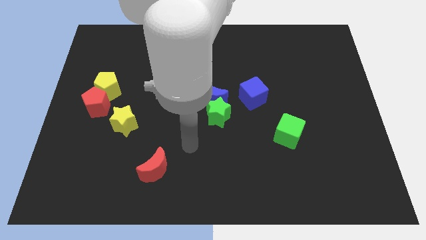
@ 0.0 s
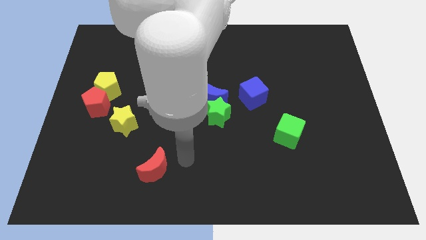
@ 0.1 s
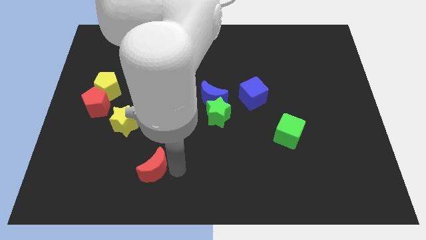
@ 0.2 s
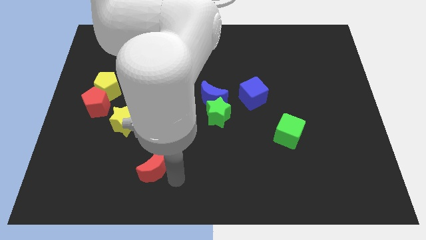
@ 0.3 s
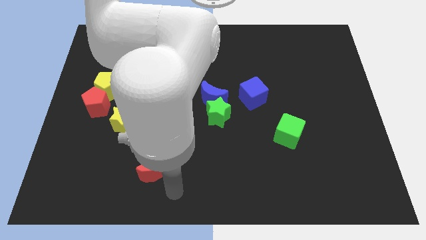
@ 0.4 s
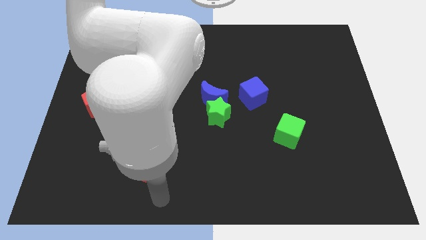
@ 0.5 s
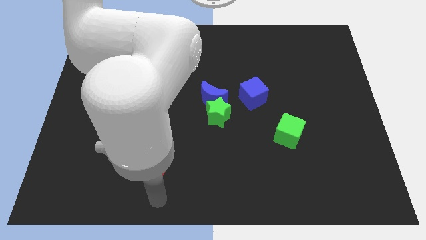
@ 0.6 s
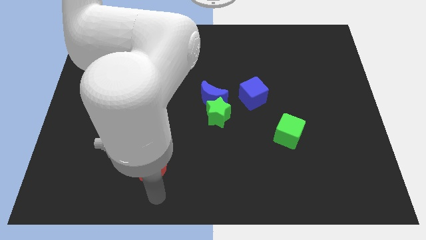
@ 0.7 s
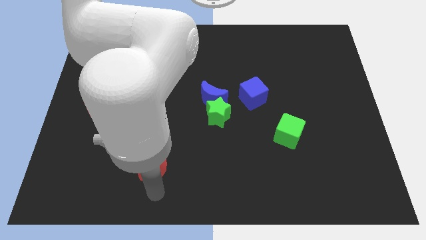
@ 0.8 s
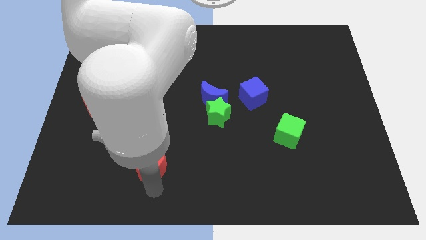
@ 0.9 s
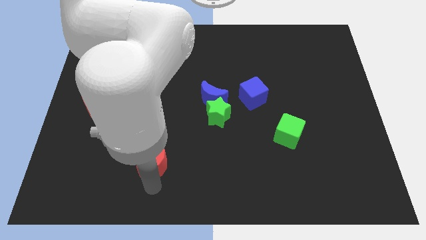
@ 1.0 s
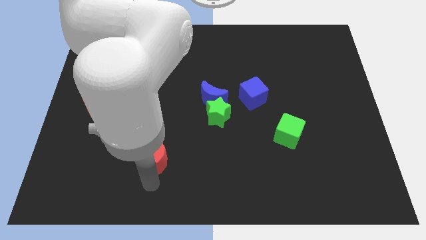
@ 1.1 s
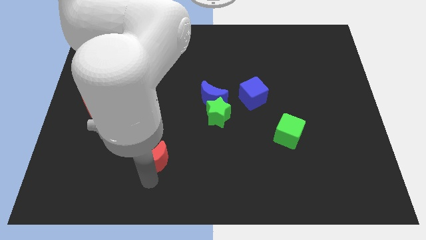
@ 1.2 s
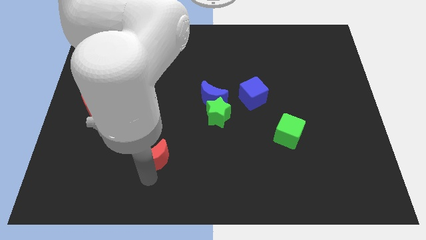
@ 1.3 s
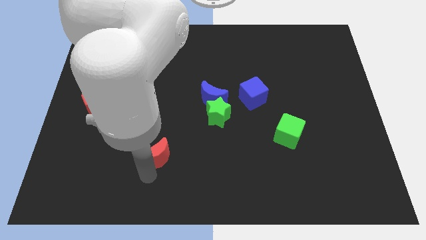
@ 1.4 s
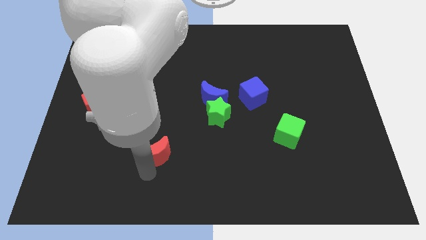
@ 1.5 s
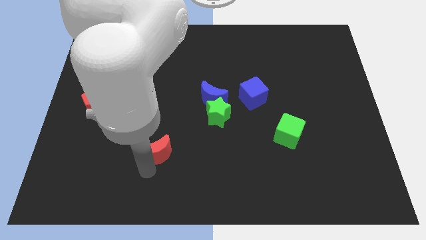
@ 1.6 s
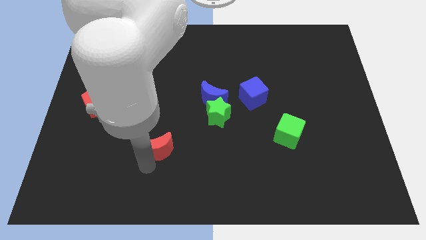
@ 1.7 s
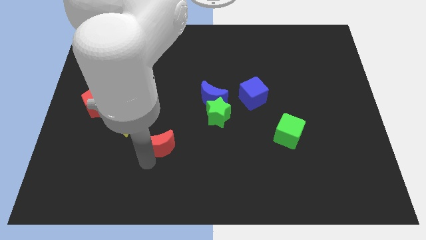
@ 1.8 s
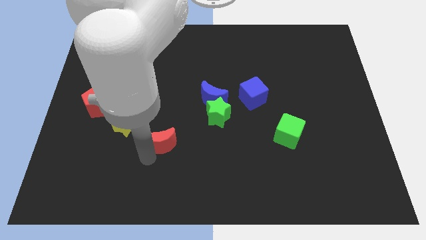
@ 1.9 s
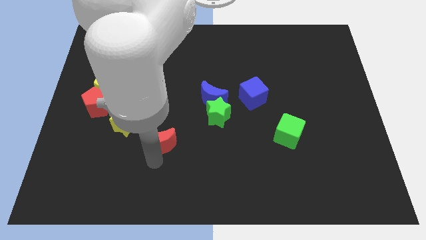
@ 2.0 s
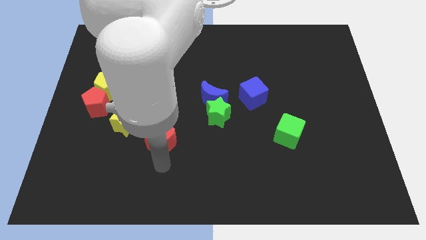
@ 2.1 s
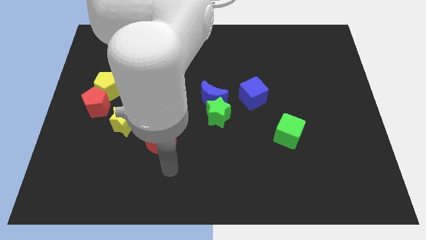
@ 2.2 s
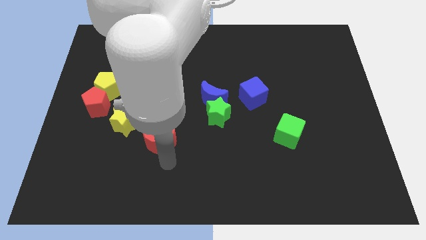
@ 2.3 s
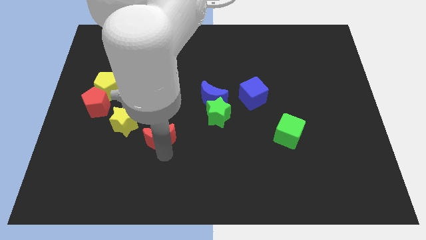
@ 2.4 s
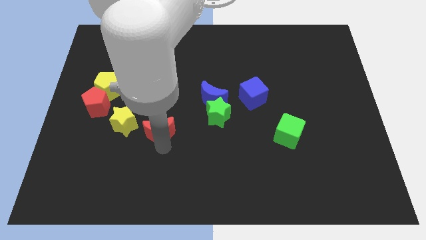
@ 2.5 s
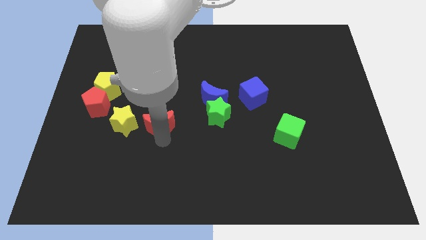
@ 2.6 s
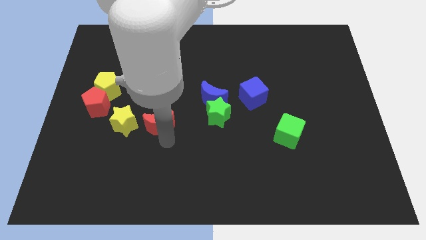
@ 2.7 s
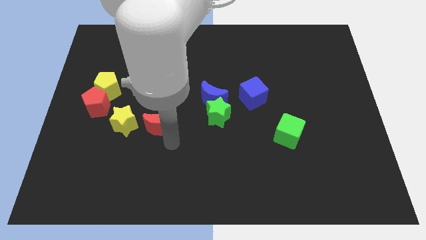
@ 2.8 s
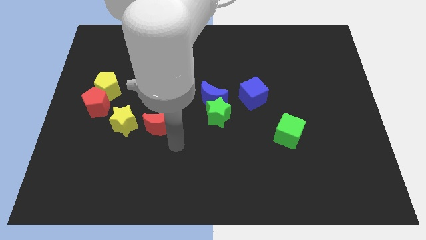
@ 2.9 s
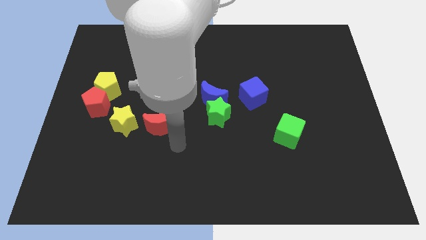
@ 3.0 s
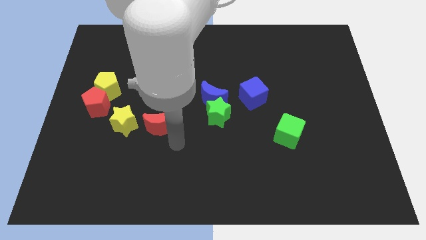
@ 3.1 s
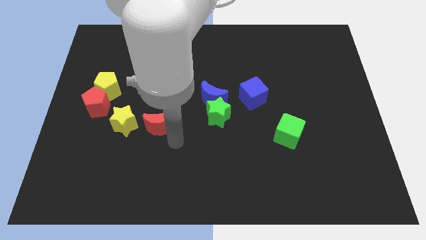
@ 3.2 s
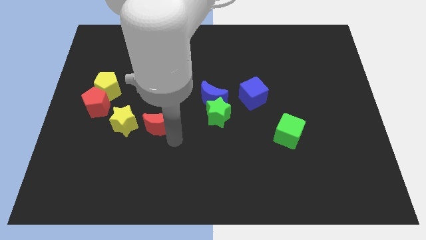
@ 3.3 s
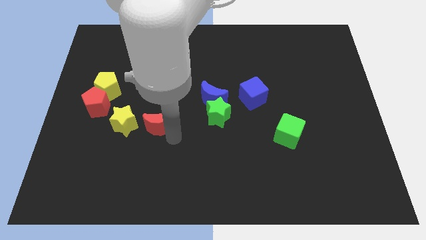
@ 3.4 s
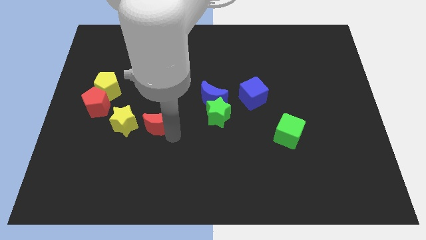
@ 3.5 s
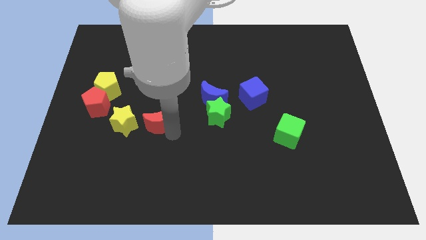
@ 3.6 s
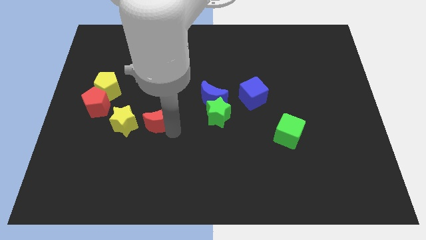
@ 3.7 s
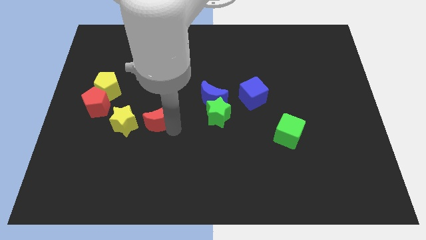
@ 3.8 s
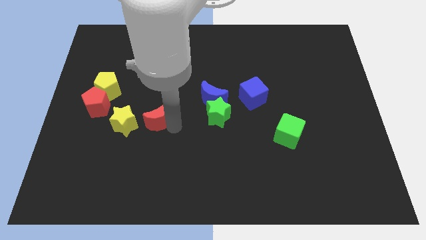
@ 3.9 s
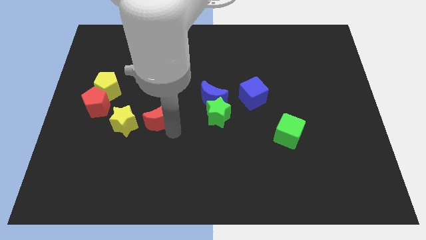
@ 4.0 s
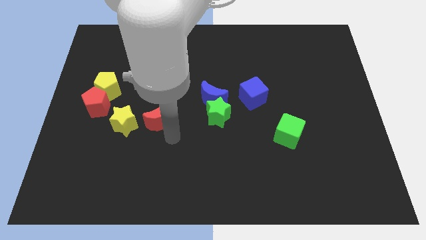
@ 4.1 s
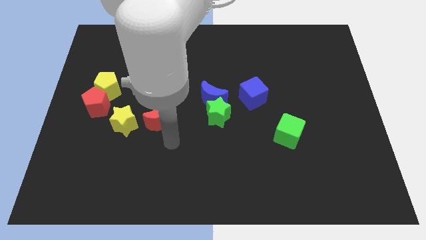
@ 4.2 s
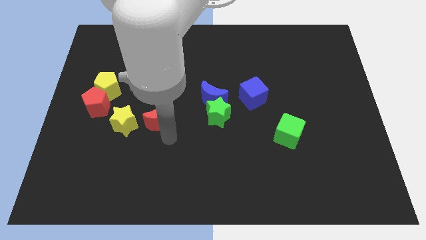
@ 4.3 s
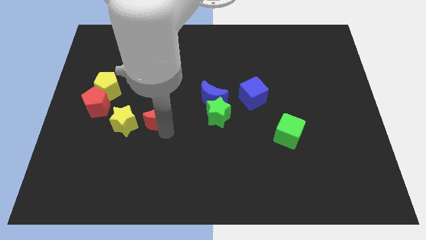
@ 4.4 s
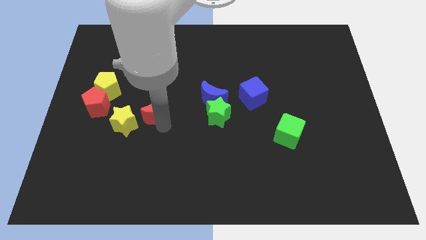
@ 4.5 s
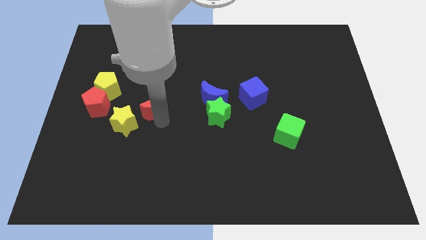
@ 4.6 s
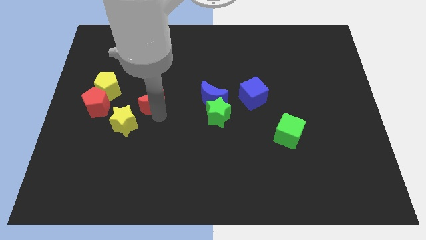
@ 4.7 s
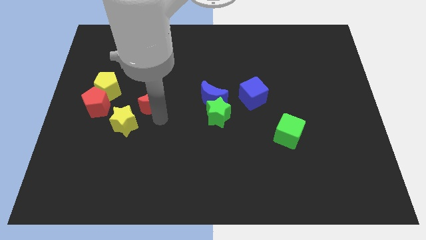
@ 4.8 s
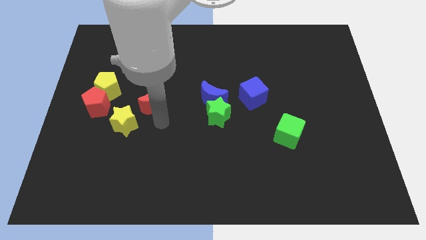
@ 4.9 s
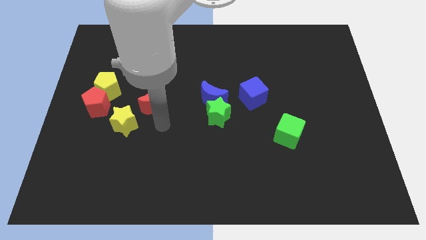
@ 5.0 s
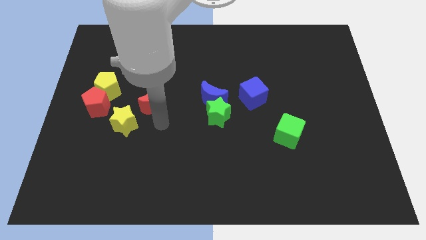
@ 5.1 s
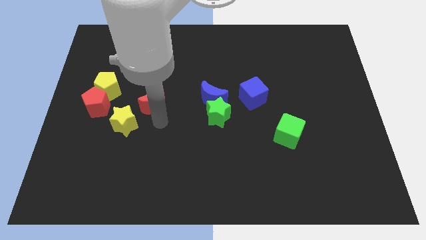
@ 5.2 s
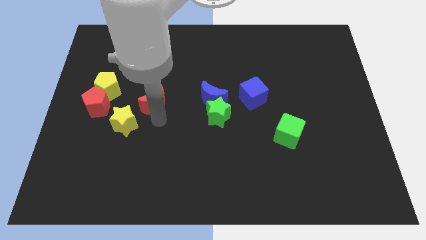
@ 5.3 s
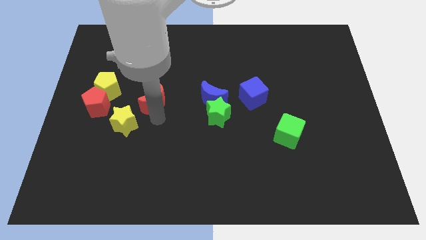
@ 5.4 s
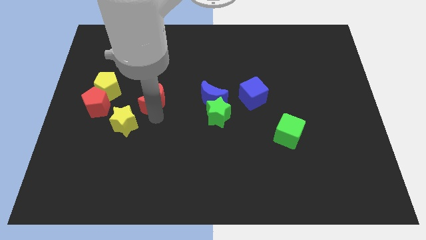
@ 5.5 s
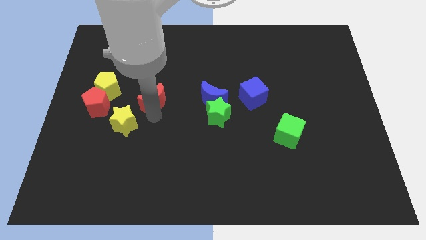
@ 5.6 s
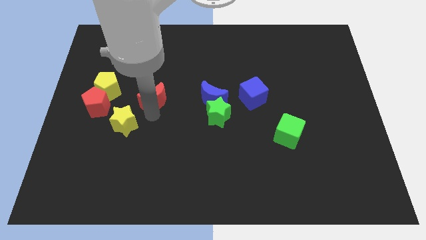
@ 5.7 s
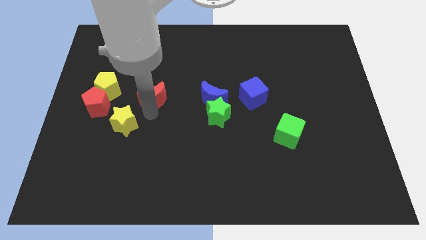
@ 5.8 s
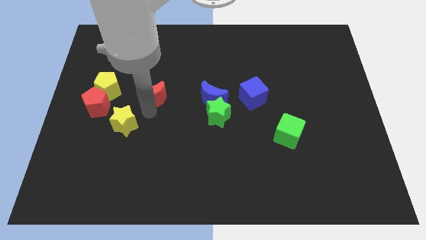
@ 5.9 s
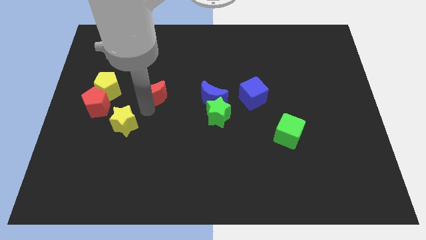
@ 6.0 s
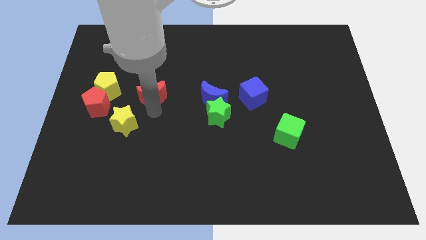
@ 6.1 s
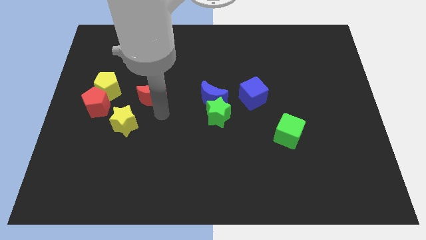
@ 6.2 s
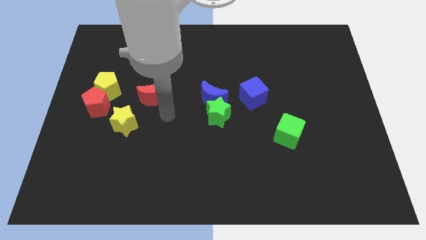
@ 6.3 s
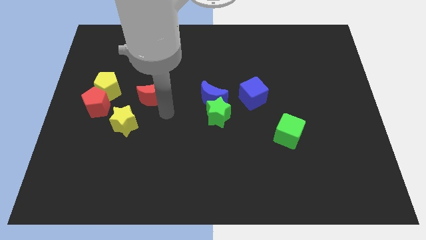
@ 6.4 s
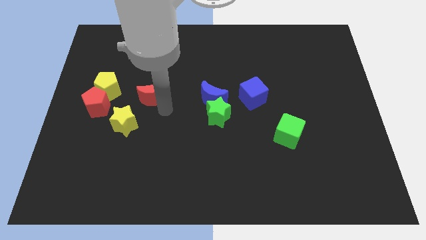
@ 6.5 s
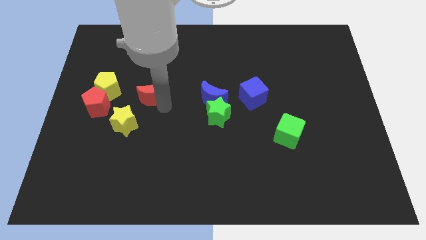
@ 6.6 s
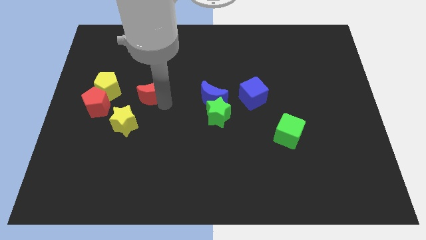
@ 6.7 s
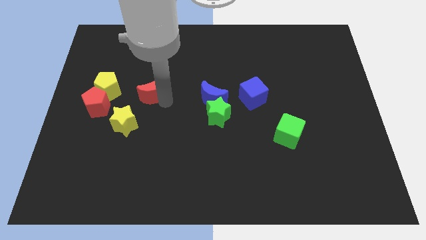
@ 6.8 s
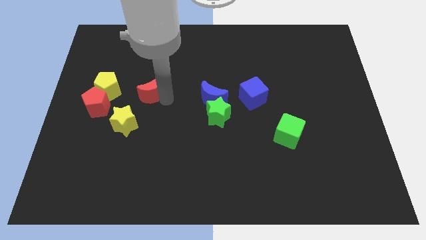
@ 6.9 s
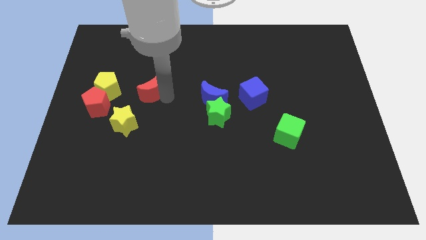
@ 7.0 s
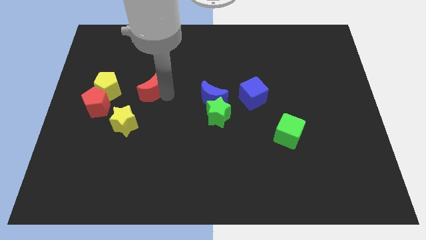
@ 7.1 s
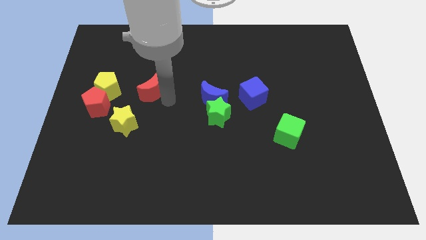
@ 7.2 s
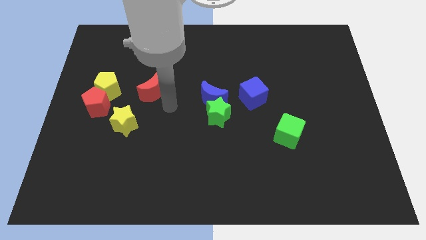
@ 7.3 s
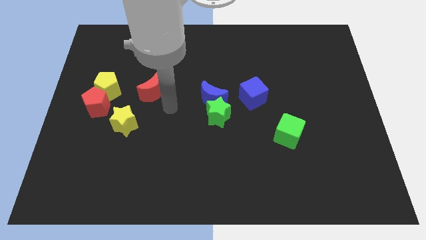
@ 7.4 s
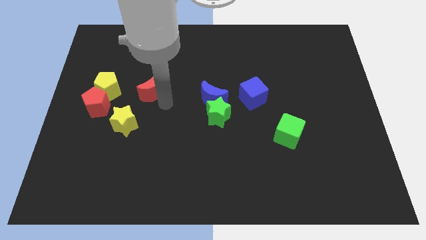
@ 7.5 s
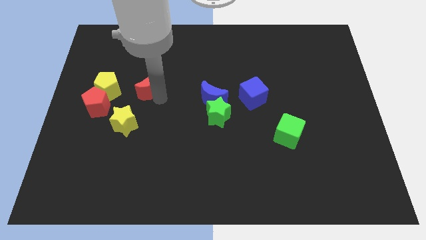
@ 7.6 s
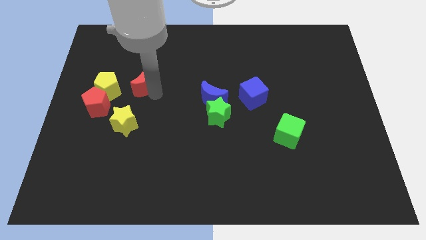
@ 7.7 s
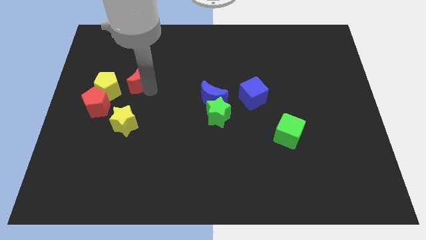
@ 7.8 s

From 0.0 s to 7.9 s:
slide the red moon to the top right side of the yellow pentagon
